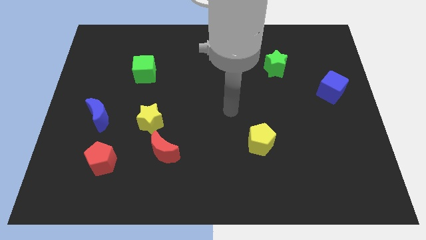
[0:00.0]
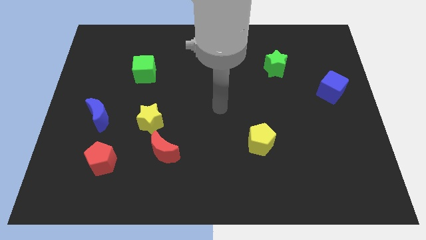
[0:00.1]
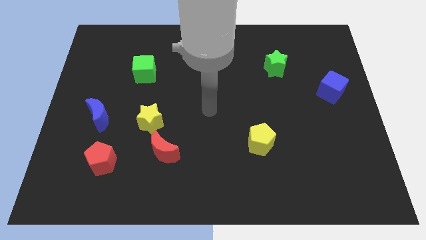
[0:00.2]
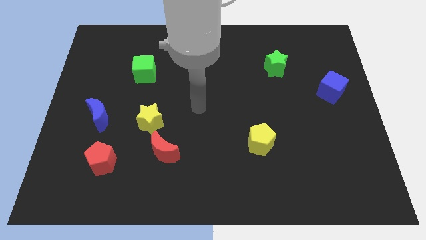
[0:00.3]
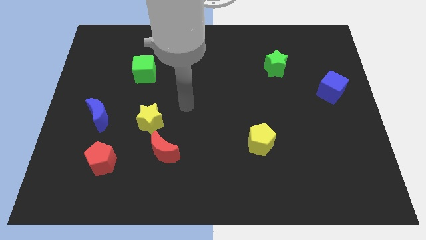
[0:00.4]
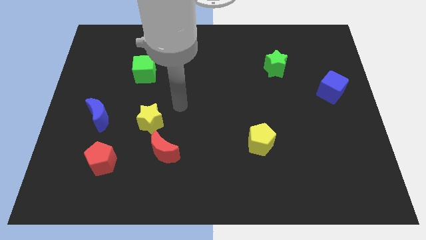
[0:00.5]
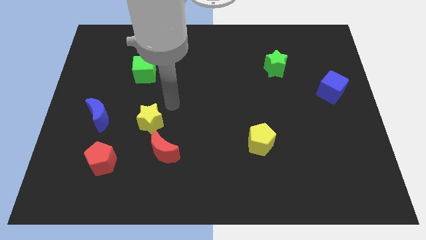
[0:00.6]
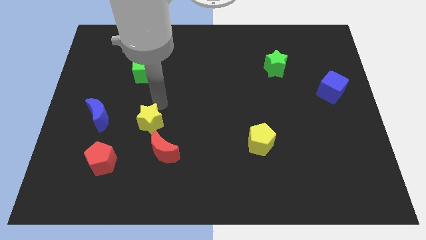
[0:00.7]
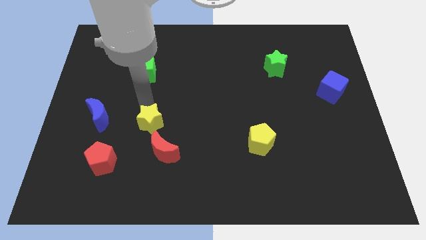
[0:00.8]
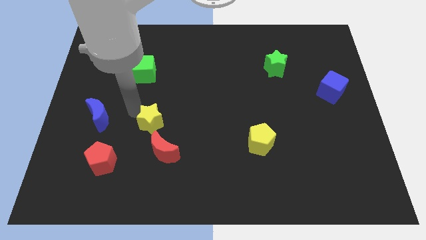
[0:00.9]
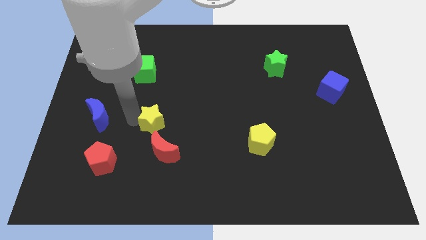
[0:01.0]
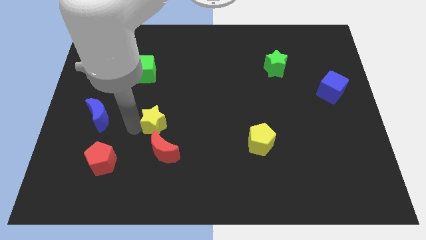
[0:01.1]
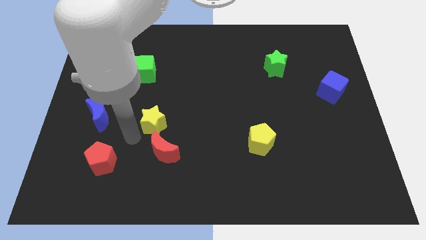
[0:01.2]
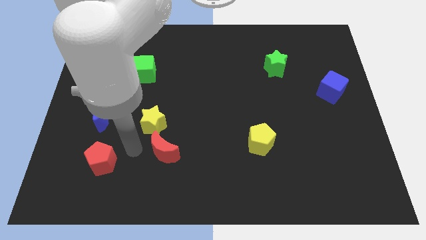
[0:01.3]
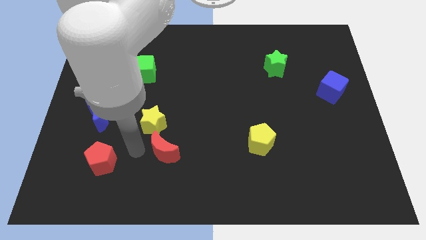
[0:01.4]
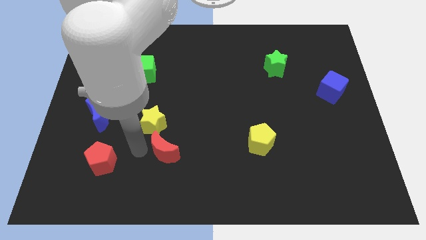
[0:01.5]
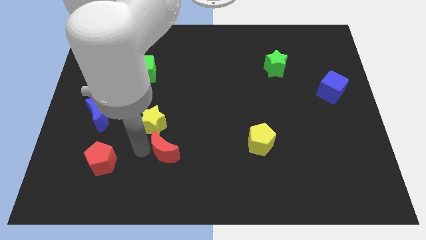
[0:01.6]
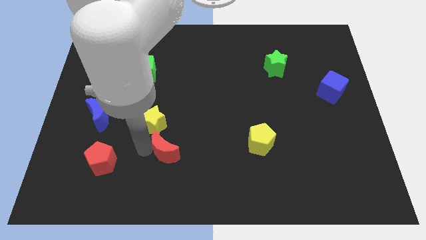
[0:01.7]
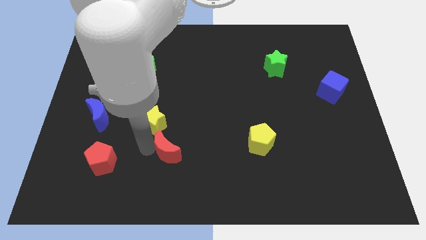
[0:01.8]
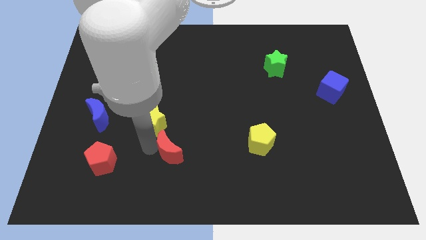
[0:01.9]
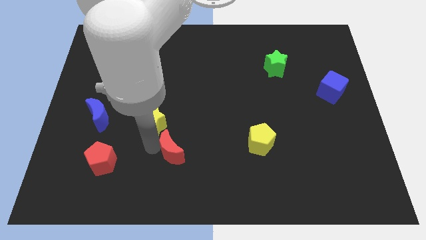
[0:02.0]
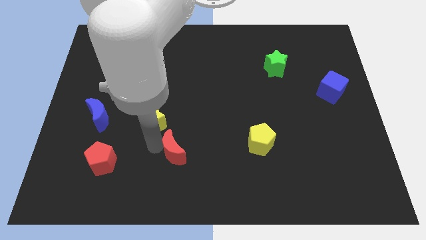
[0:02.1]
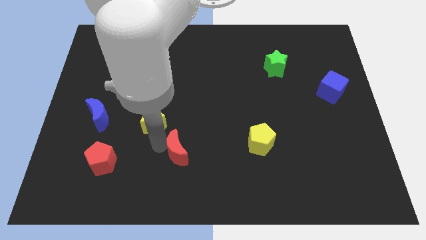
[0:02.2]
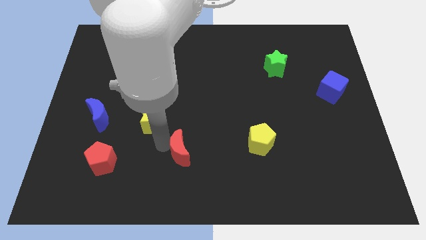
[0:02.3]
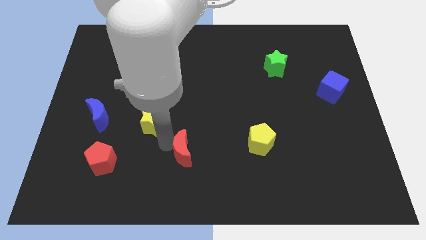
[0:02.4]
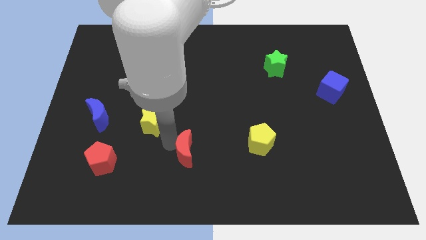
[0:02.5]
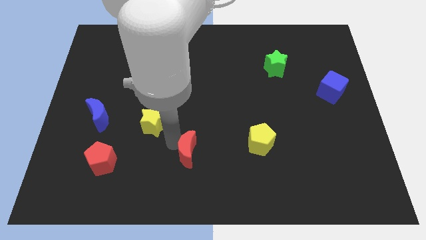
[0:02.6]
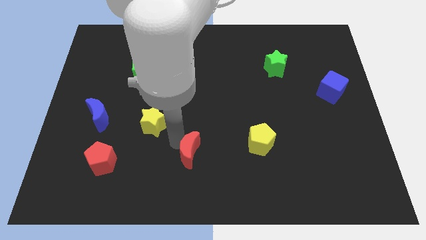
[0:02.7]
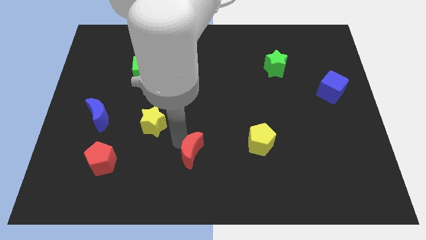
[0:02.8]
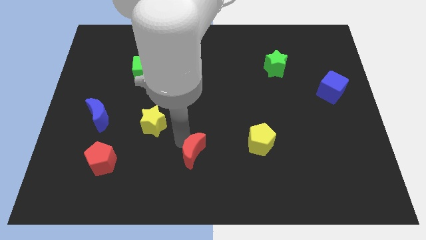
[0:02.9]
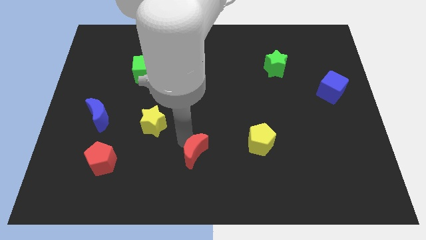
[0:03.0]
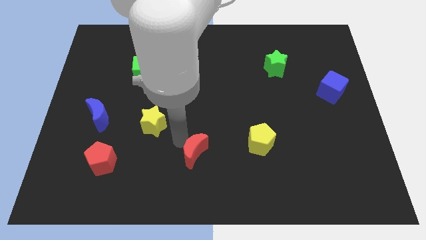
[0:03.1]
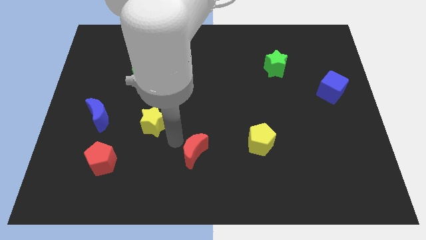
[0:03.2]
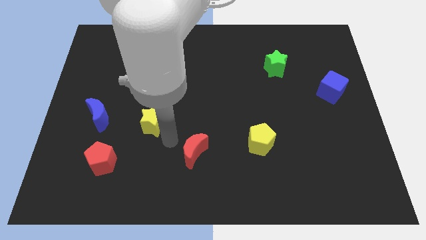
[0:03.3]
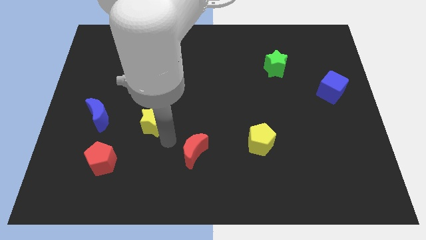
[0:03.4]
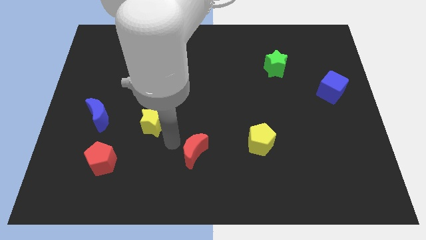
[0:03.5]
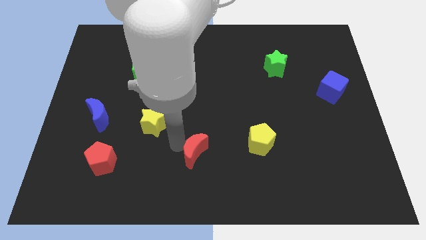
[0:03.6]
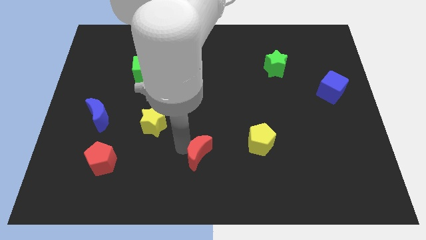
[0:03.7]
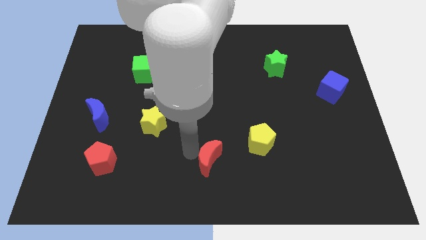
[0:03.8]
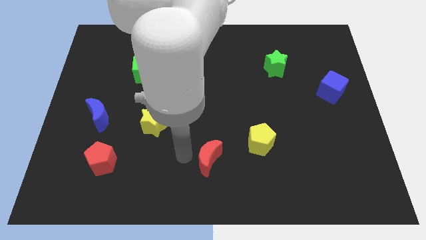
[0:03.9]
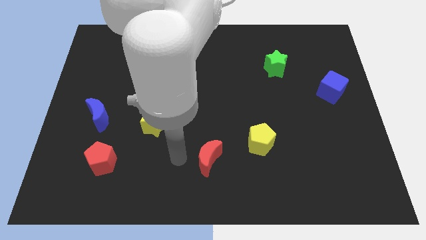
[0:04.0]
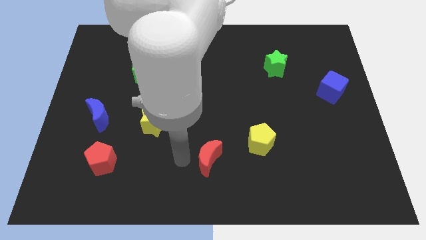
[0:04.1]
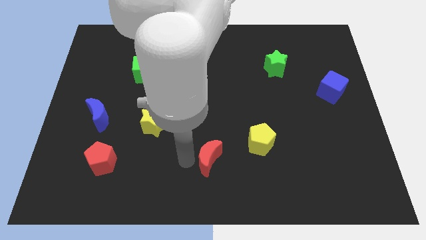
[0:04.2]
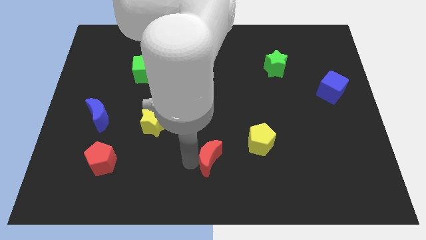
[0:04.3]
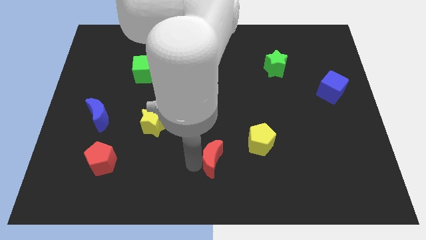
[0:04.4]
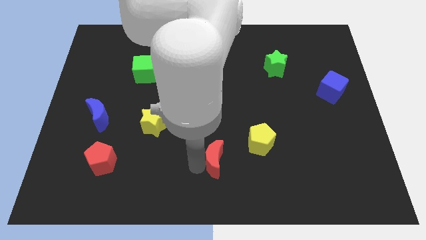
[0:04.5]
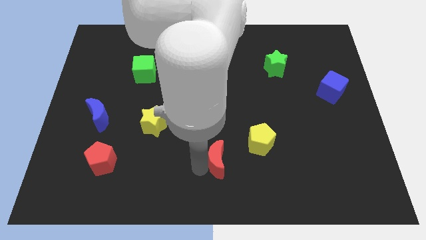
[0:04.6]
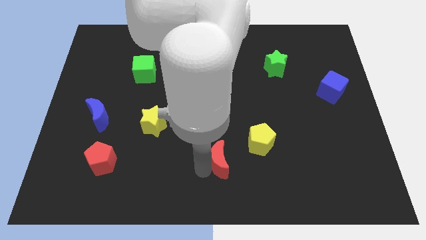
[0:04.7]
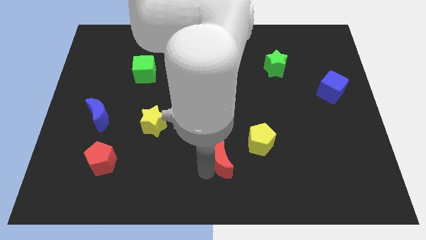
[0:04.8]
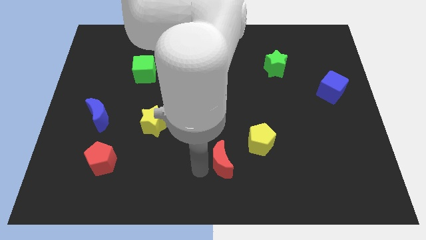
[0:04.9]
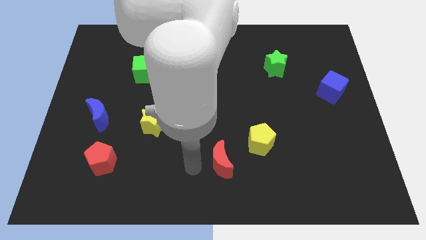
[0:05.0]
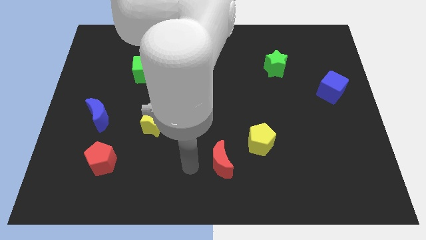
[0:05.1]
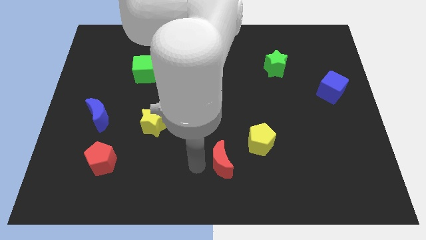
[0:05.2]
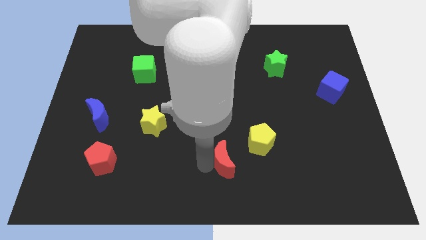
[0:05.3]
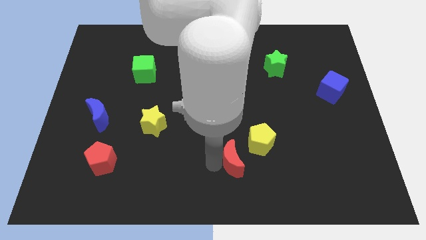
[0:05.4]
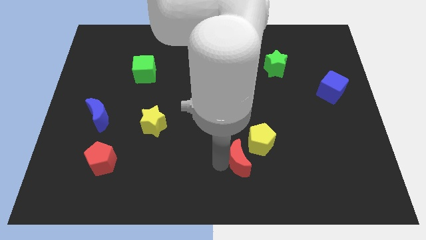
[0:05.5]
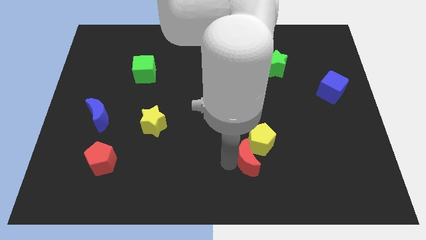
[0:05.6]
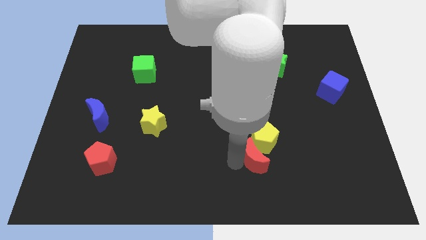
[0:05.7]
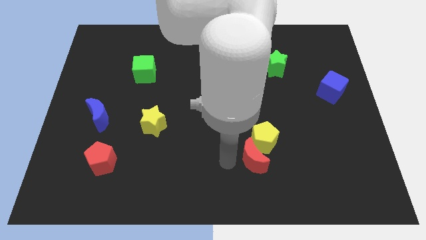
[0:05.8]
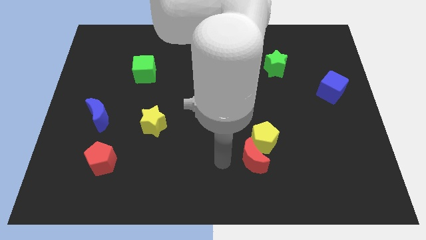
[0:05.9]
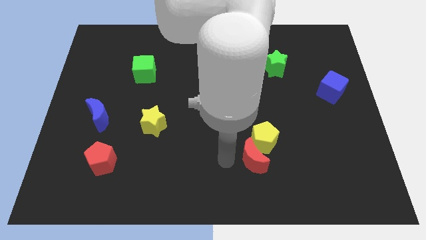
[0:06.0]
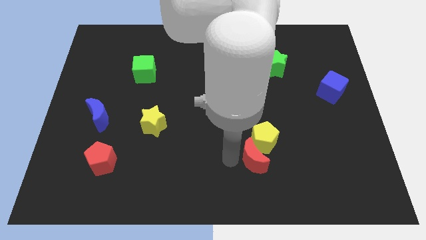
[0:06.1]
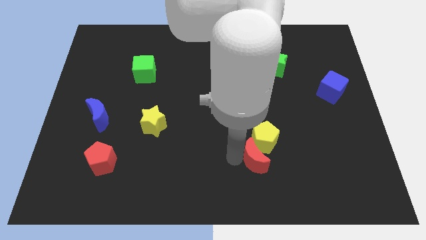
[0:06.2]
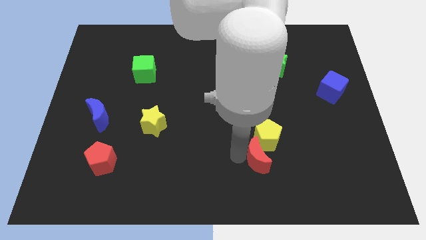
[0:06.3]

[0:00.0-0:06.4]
slide the red moon right

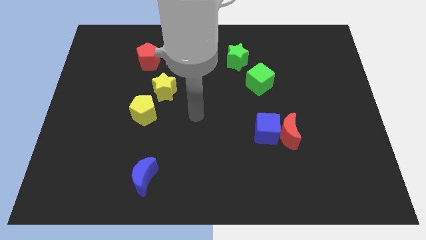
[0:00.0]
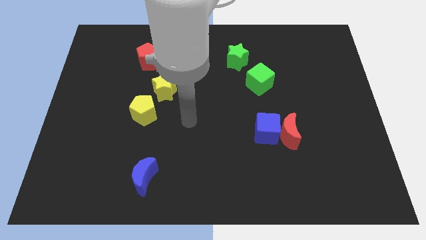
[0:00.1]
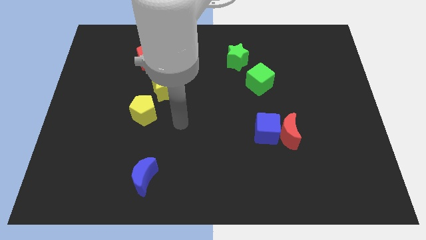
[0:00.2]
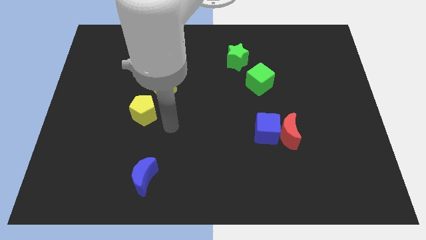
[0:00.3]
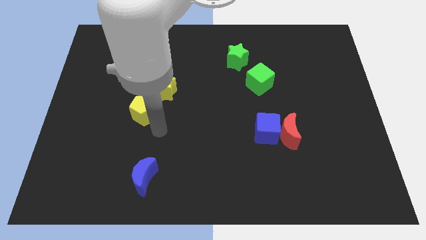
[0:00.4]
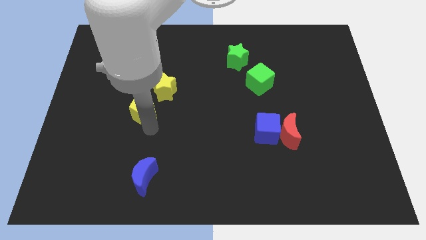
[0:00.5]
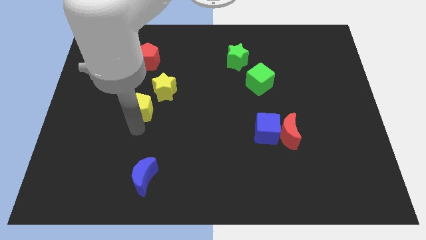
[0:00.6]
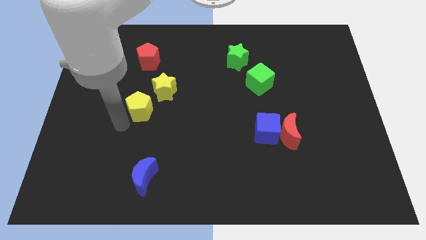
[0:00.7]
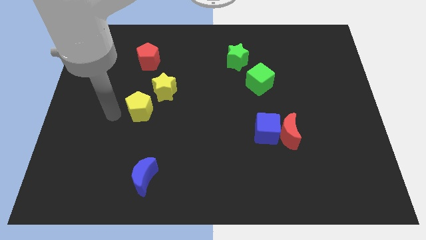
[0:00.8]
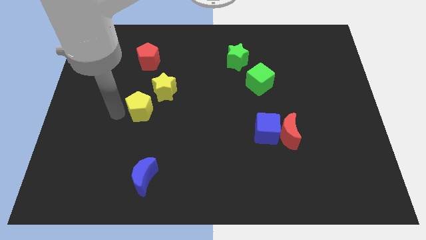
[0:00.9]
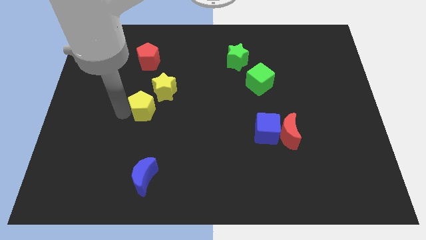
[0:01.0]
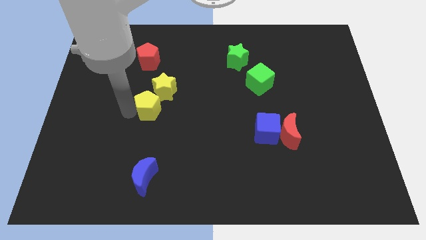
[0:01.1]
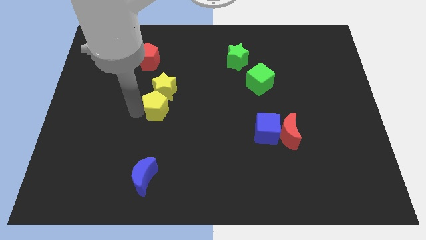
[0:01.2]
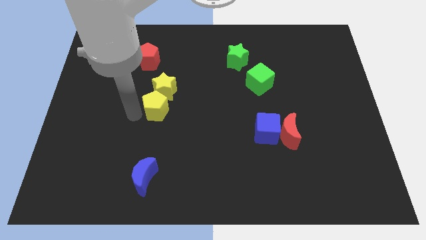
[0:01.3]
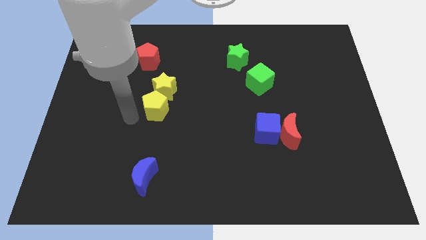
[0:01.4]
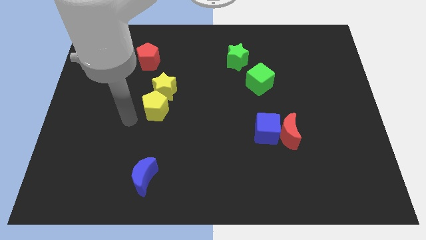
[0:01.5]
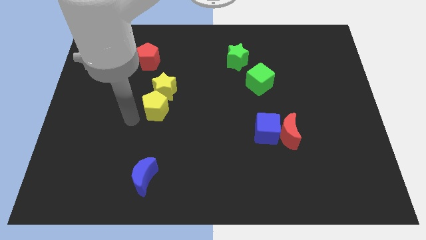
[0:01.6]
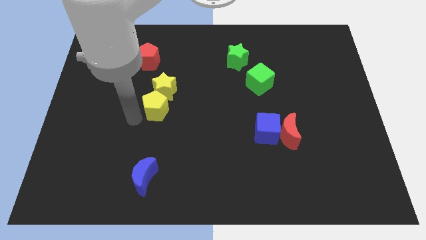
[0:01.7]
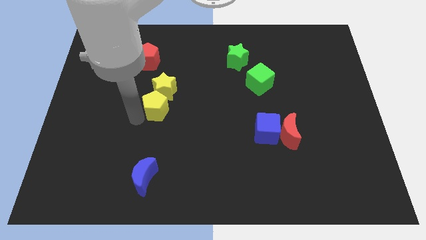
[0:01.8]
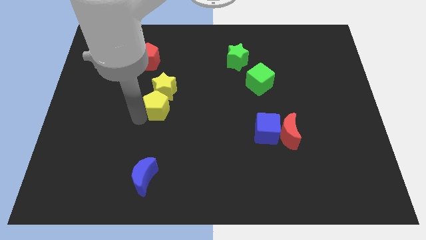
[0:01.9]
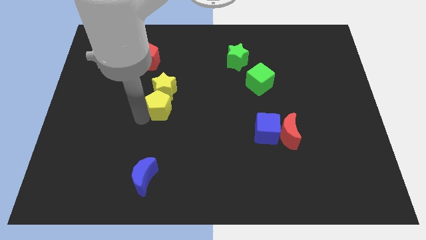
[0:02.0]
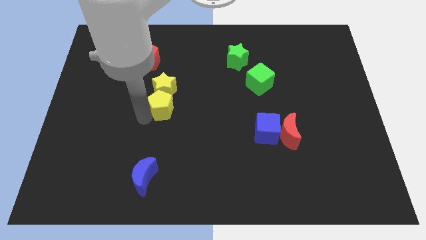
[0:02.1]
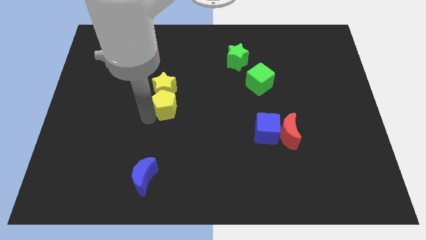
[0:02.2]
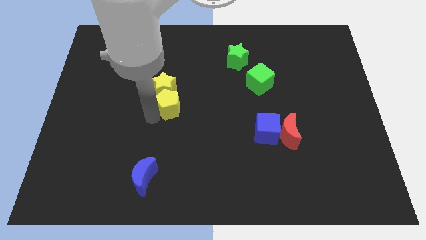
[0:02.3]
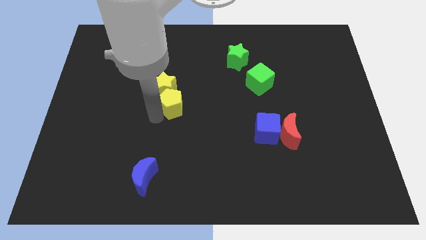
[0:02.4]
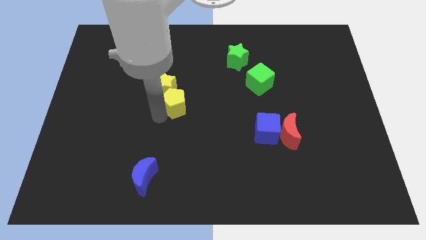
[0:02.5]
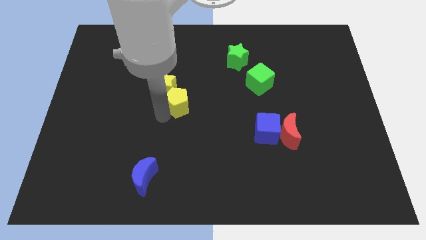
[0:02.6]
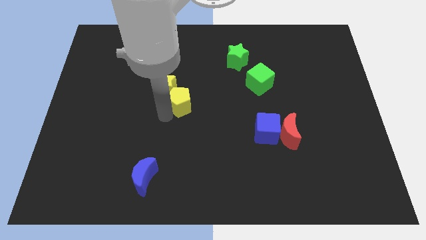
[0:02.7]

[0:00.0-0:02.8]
slide the yellow pentagon slightly up and to the right diagonally
